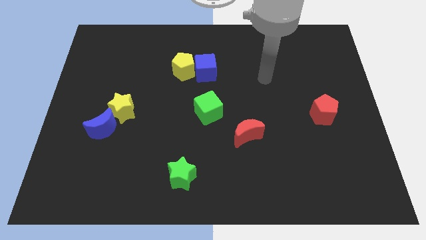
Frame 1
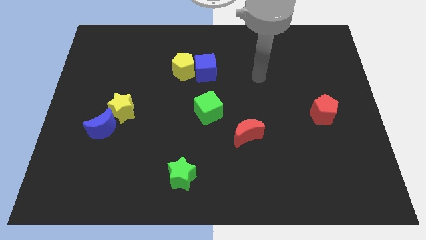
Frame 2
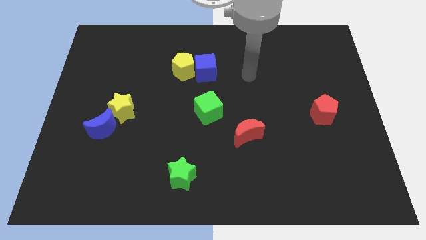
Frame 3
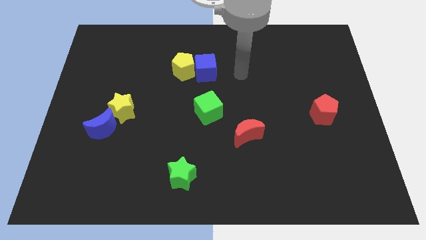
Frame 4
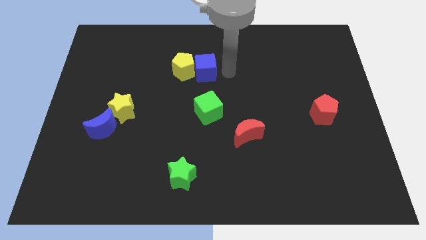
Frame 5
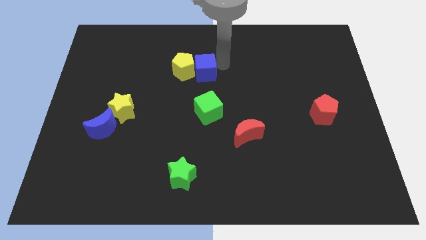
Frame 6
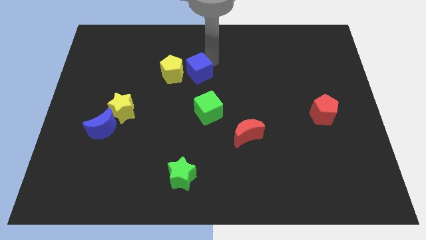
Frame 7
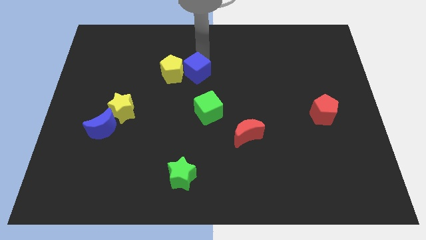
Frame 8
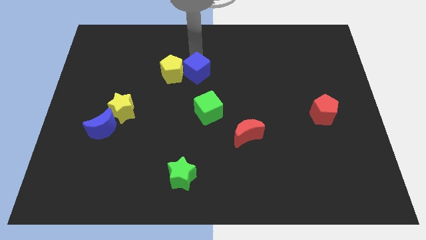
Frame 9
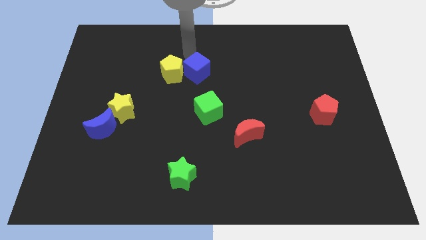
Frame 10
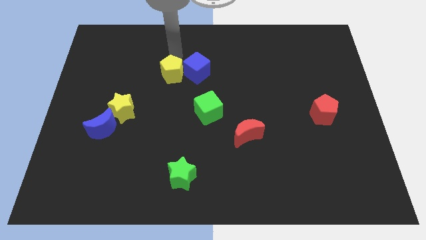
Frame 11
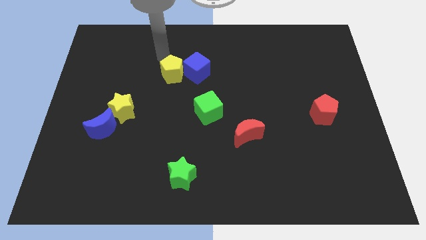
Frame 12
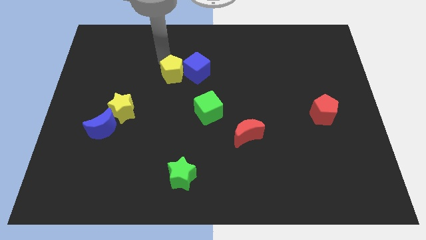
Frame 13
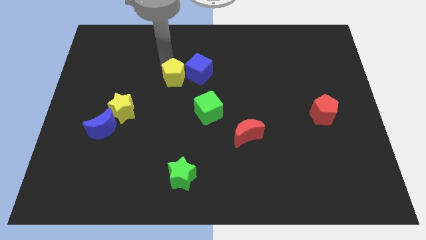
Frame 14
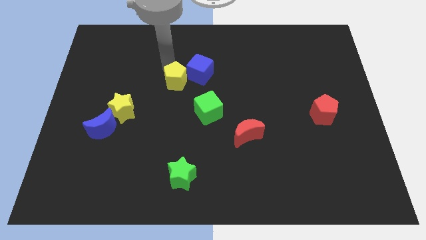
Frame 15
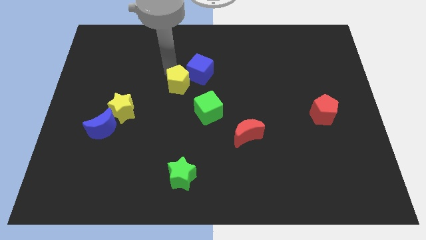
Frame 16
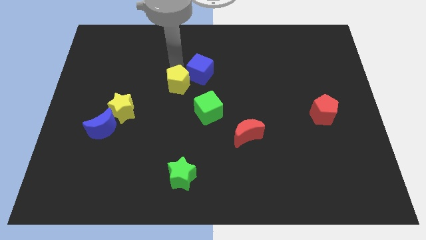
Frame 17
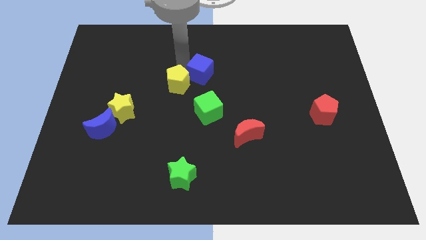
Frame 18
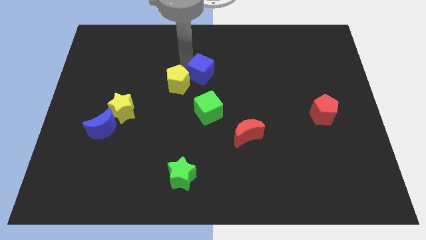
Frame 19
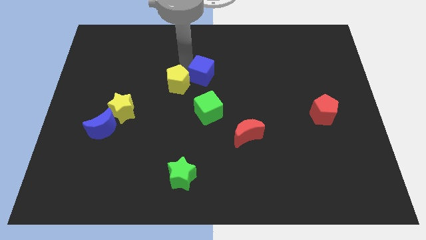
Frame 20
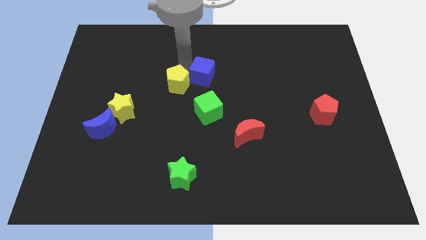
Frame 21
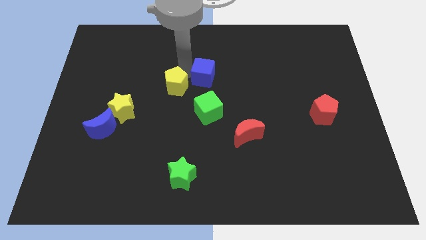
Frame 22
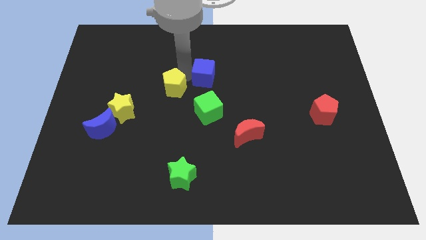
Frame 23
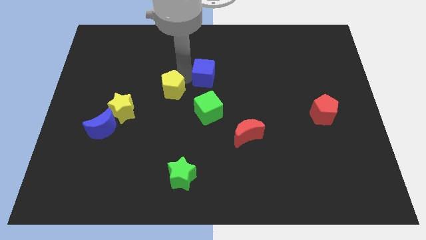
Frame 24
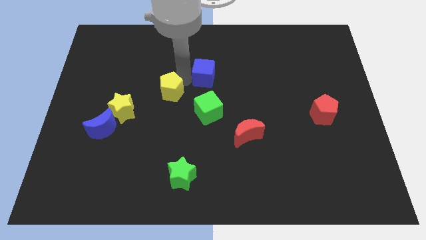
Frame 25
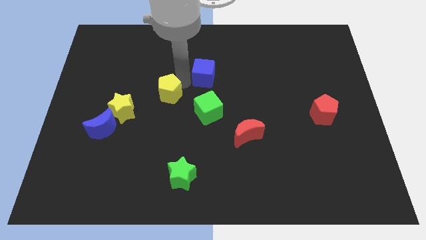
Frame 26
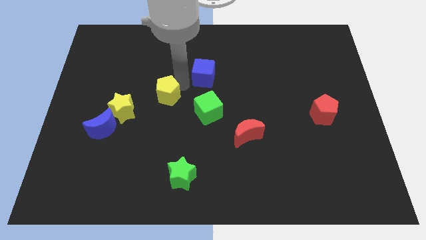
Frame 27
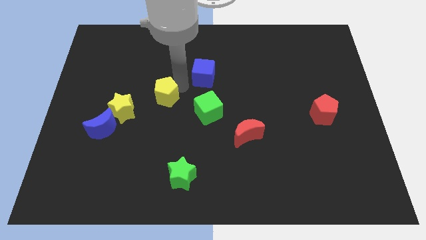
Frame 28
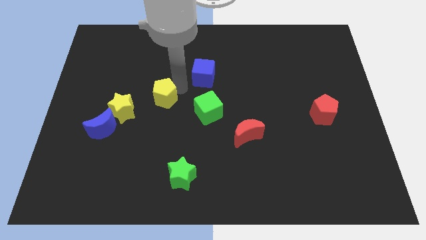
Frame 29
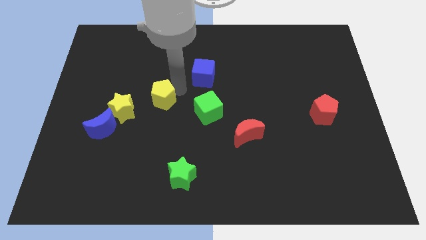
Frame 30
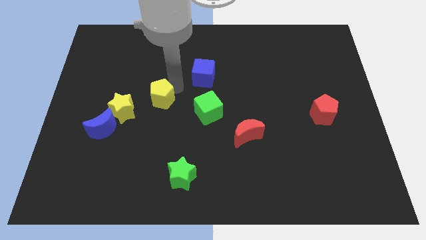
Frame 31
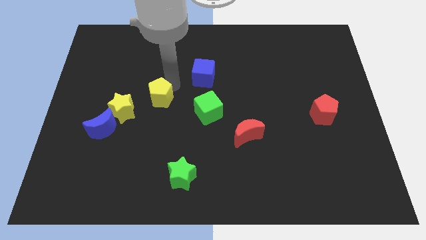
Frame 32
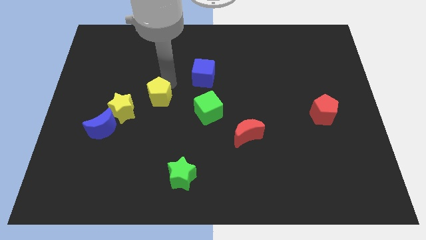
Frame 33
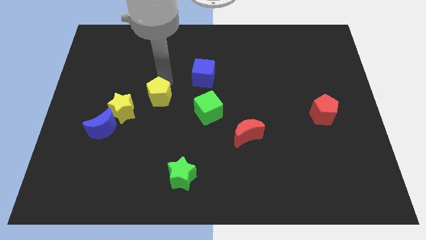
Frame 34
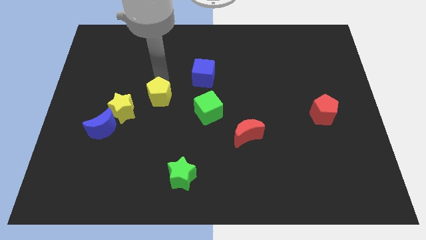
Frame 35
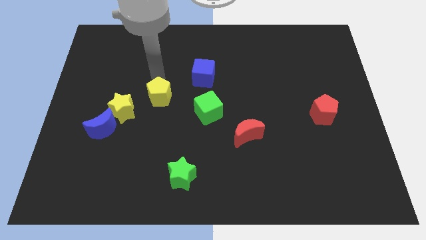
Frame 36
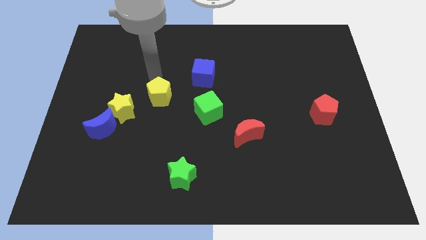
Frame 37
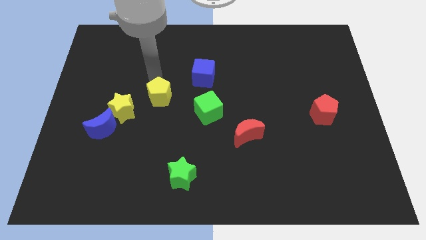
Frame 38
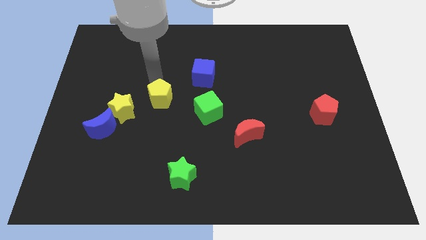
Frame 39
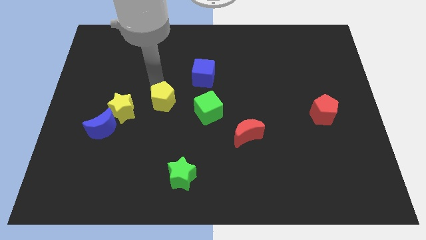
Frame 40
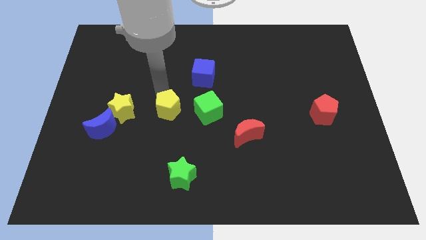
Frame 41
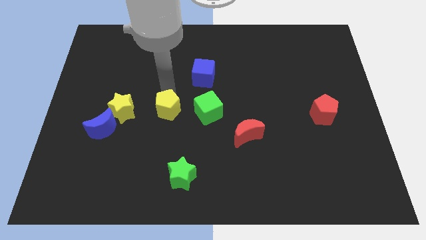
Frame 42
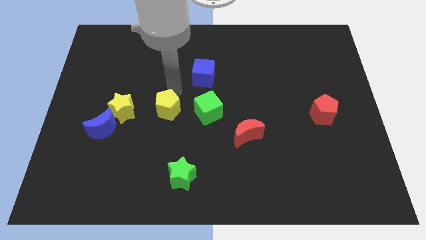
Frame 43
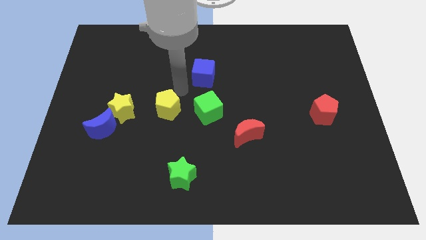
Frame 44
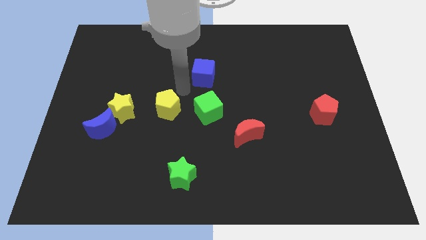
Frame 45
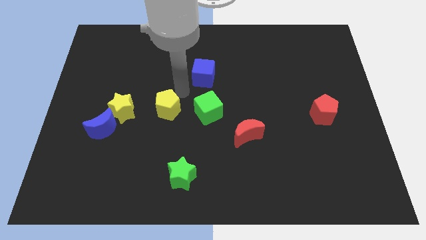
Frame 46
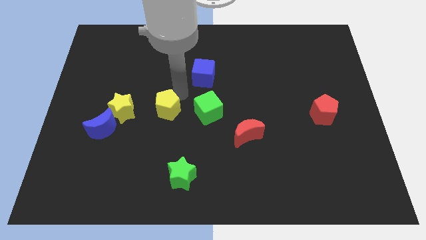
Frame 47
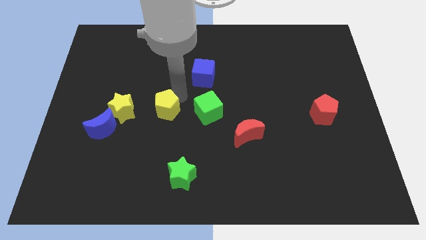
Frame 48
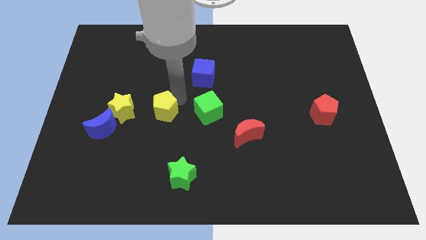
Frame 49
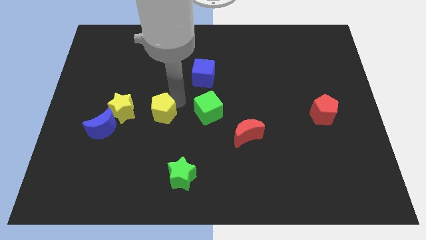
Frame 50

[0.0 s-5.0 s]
move the yellow pentagon to the right of the blue moon

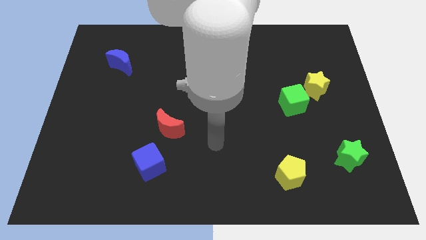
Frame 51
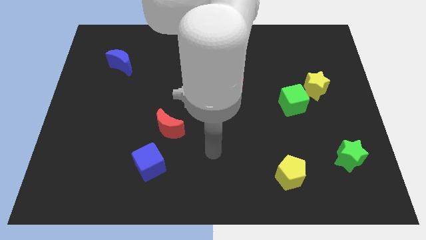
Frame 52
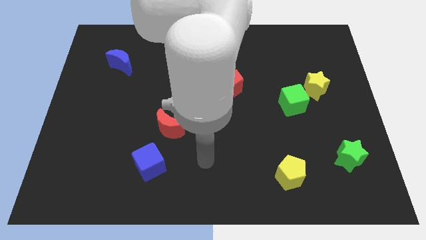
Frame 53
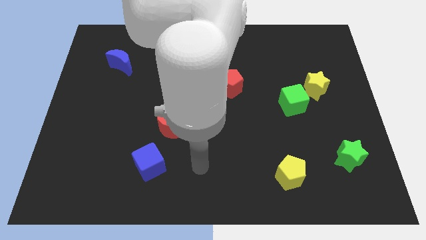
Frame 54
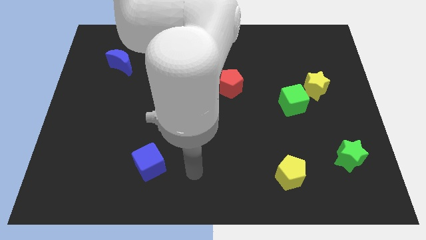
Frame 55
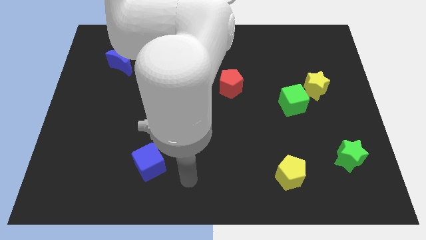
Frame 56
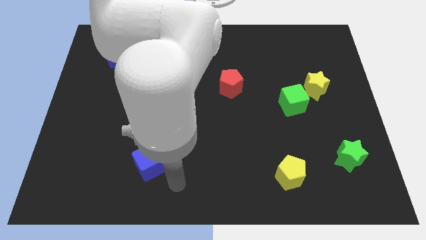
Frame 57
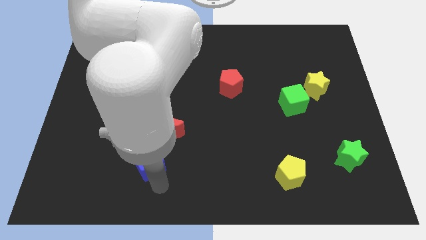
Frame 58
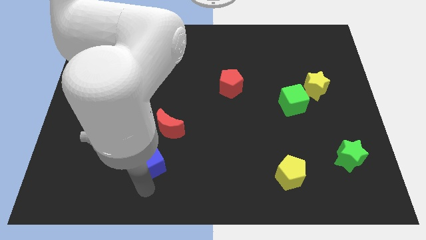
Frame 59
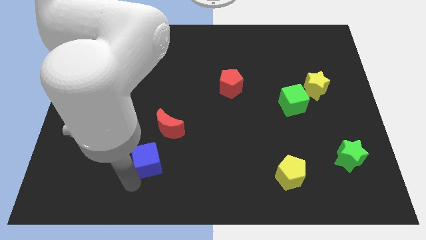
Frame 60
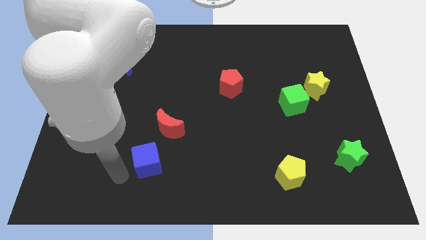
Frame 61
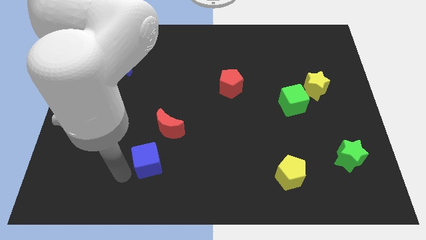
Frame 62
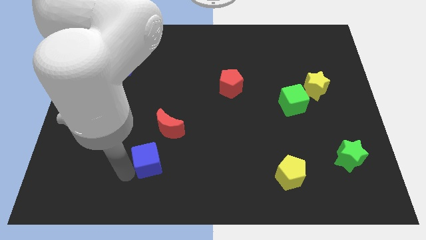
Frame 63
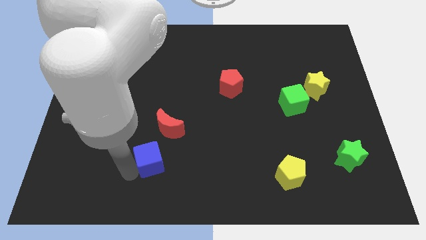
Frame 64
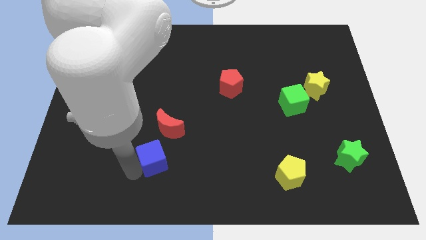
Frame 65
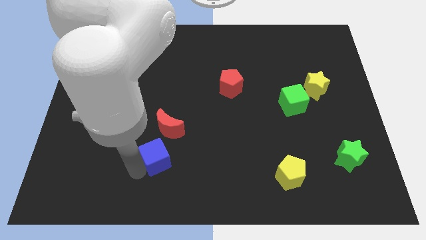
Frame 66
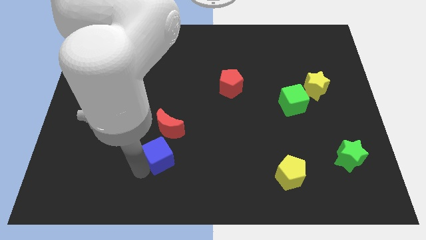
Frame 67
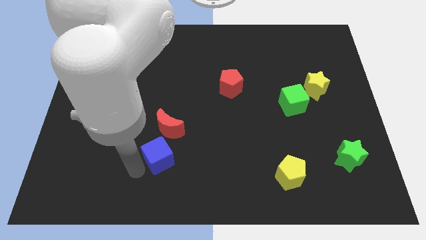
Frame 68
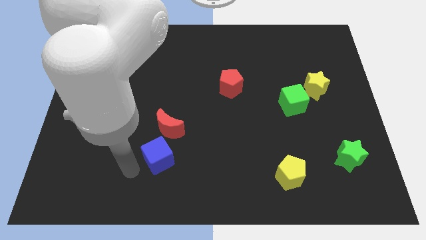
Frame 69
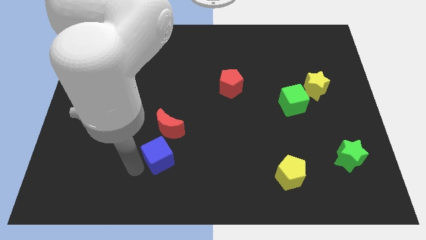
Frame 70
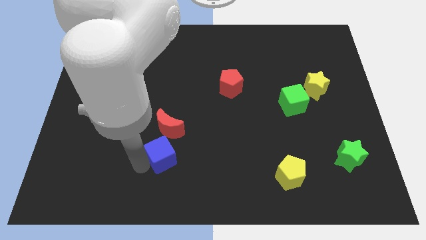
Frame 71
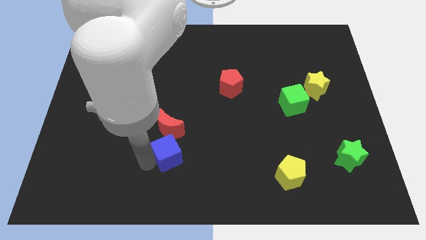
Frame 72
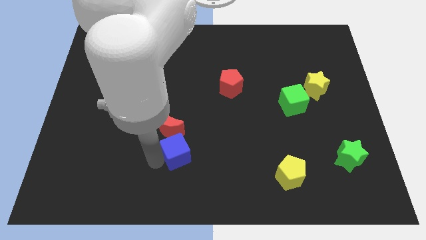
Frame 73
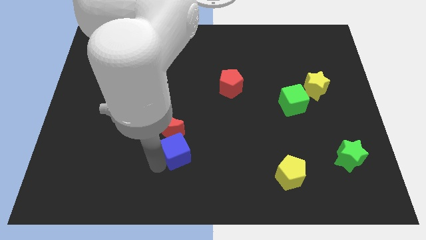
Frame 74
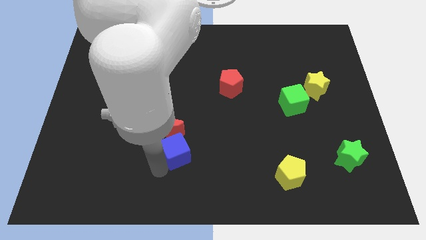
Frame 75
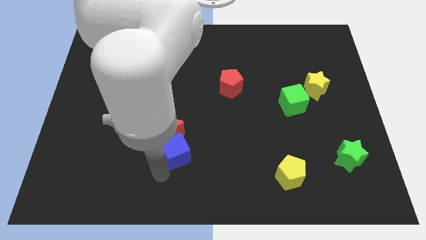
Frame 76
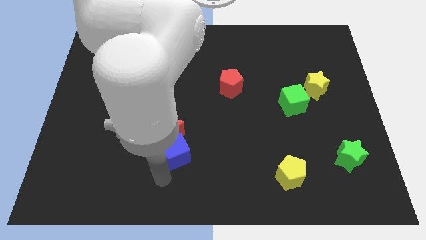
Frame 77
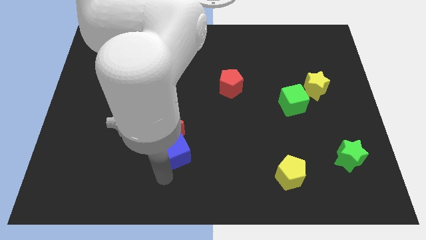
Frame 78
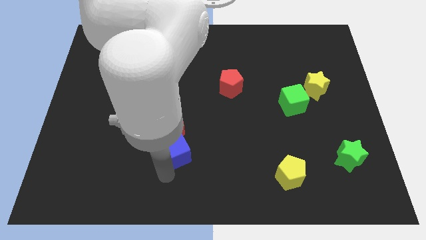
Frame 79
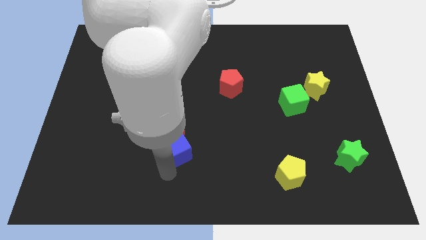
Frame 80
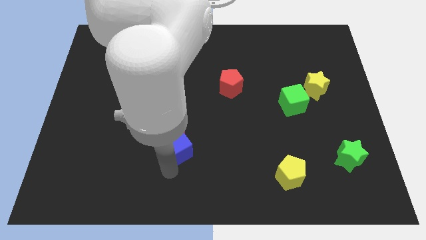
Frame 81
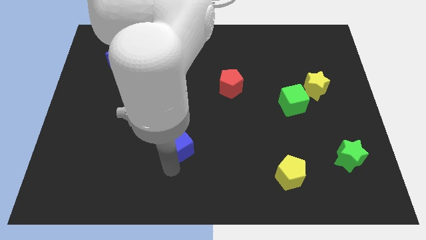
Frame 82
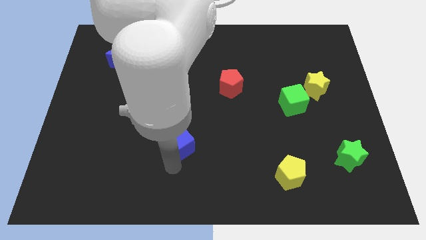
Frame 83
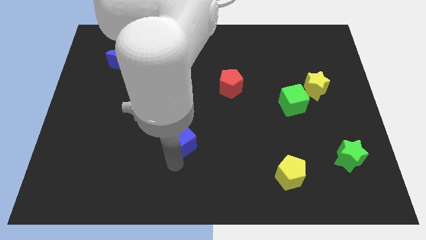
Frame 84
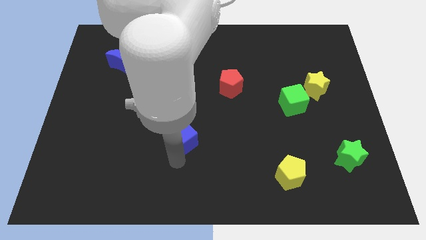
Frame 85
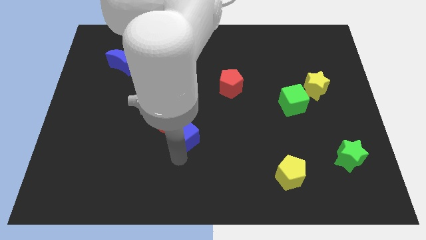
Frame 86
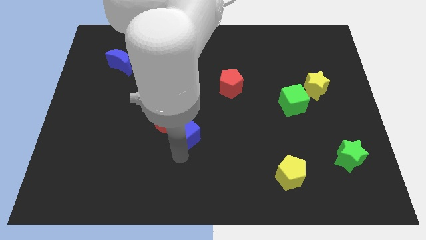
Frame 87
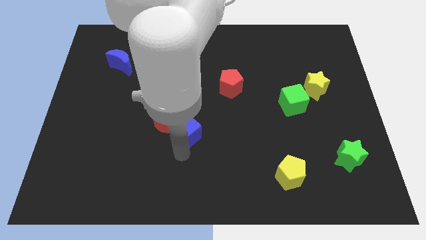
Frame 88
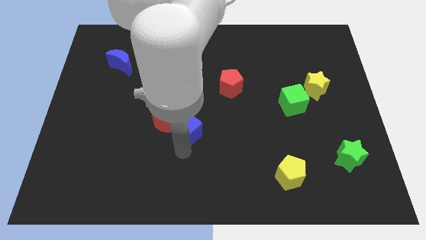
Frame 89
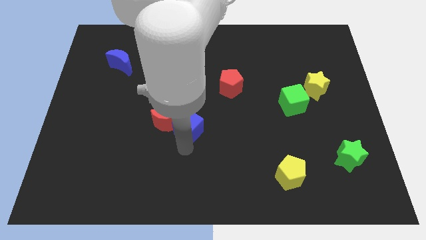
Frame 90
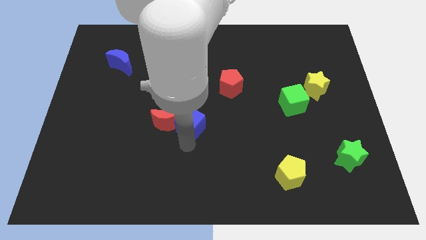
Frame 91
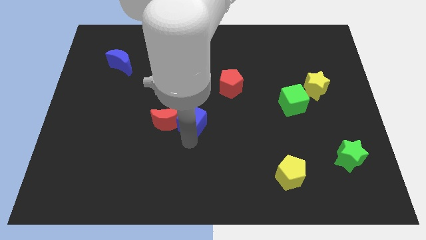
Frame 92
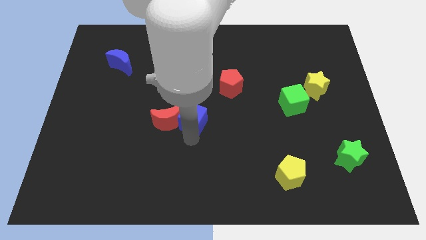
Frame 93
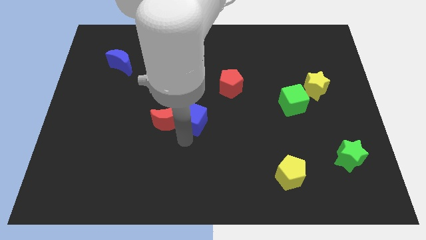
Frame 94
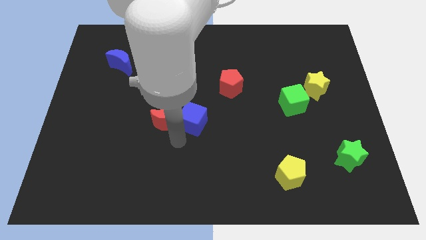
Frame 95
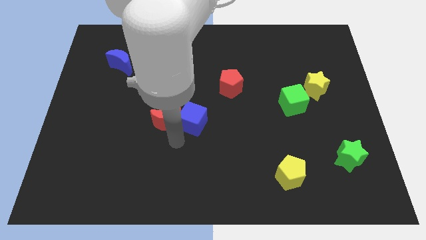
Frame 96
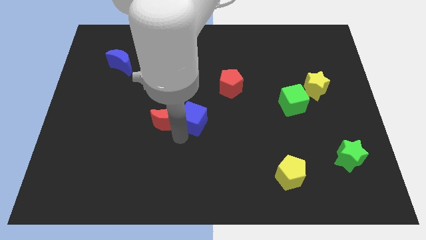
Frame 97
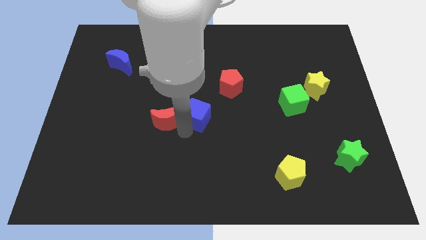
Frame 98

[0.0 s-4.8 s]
move the blue cube to the bottom left of the red pentagon
